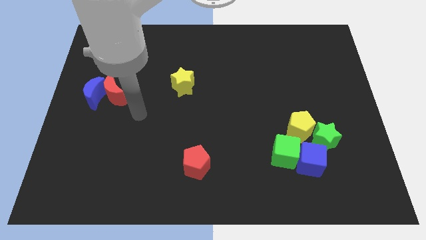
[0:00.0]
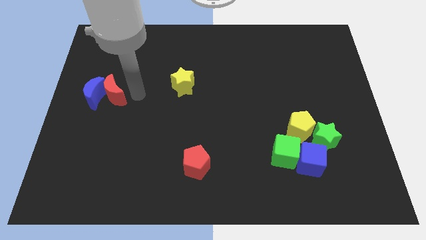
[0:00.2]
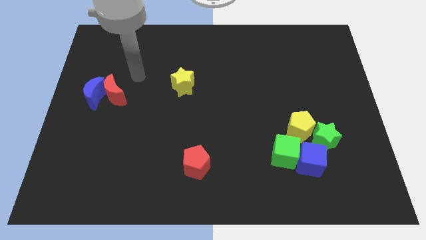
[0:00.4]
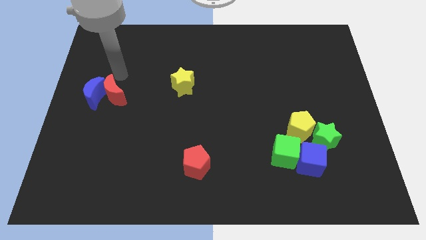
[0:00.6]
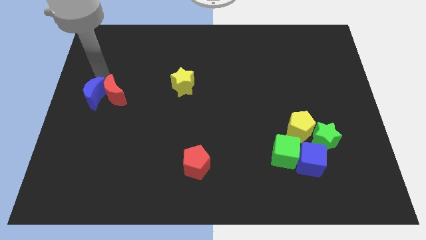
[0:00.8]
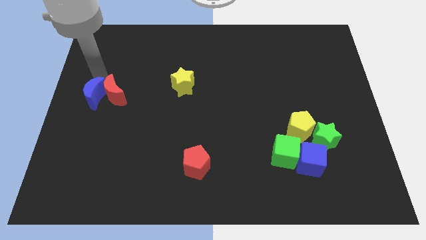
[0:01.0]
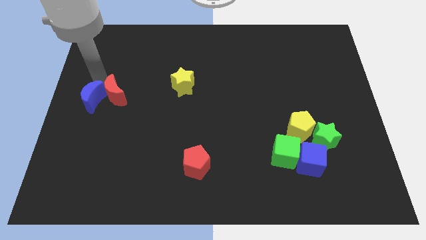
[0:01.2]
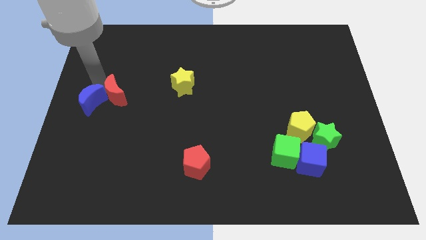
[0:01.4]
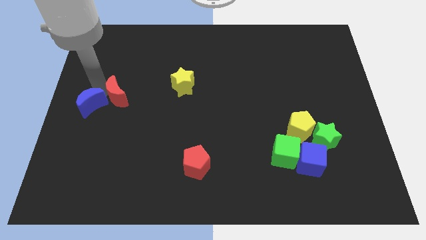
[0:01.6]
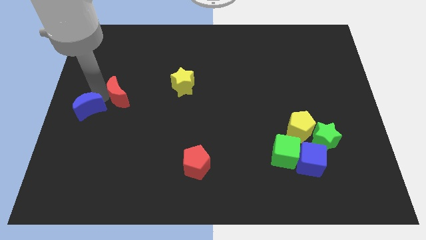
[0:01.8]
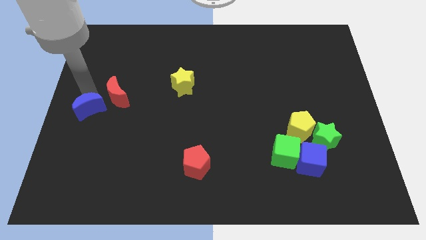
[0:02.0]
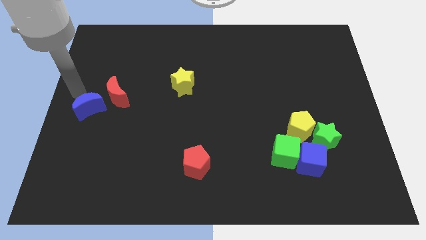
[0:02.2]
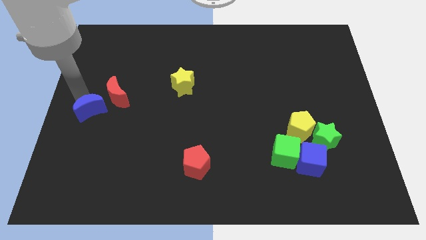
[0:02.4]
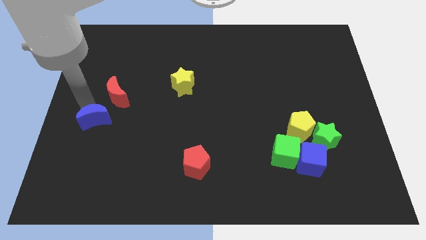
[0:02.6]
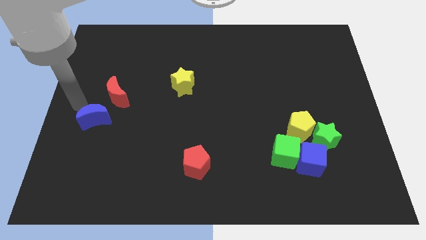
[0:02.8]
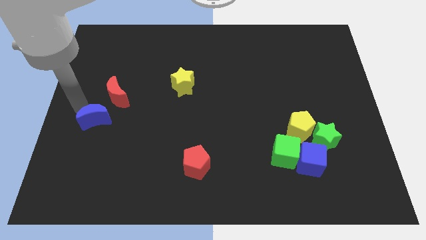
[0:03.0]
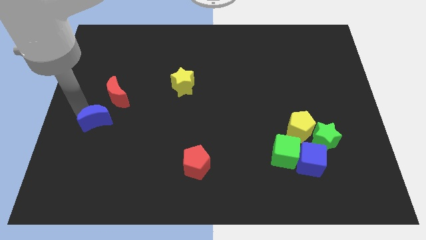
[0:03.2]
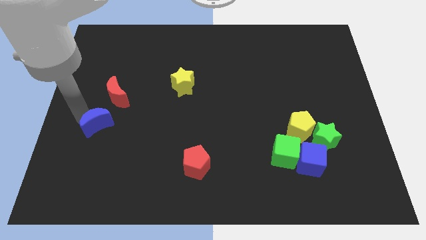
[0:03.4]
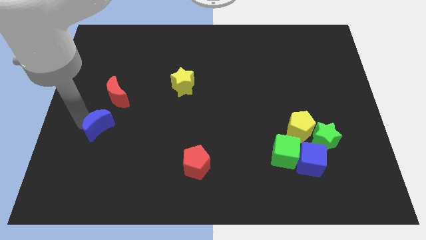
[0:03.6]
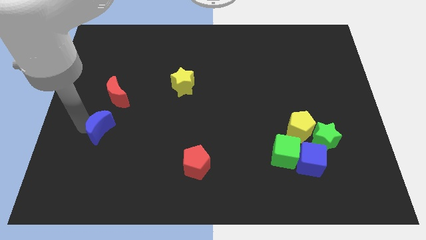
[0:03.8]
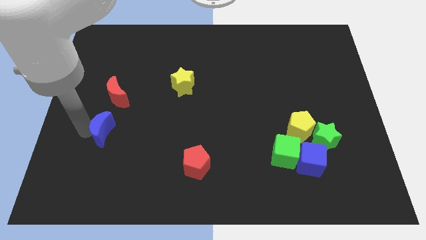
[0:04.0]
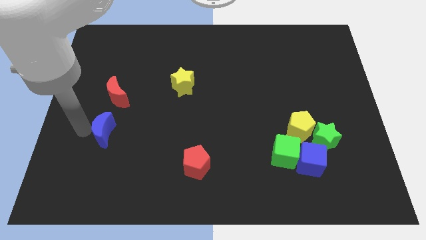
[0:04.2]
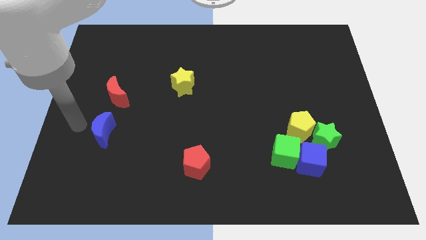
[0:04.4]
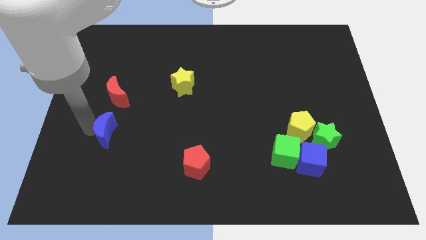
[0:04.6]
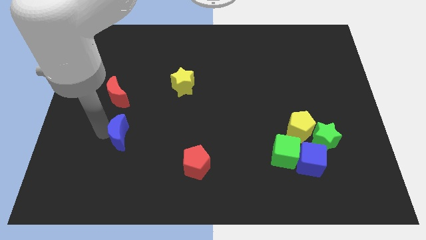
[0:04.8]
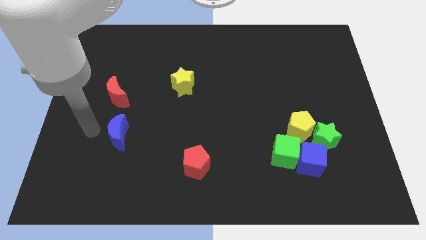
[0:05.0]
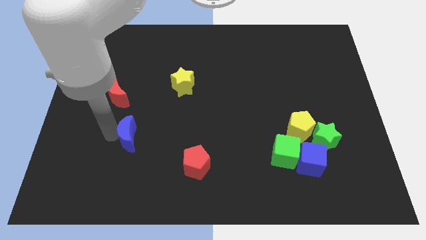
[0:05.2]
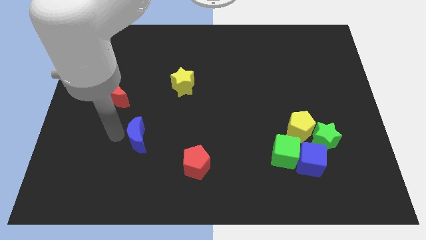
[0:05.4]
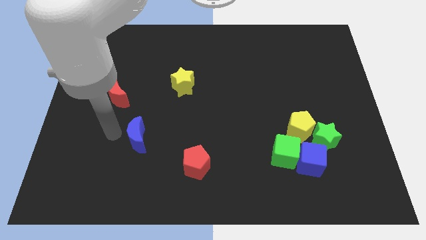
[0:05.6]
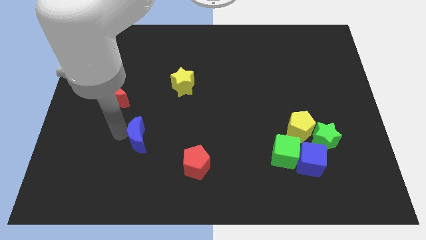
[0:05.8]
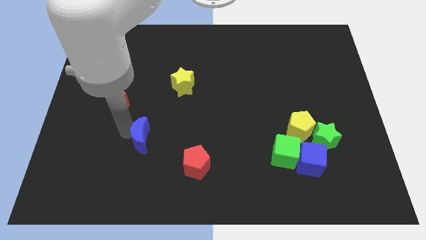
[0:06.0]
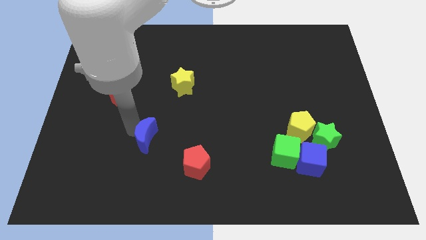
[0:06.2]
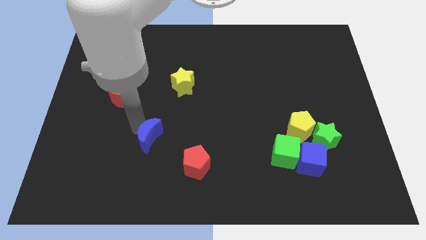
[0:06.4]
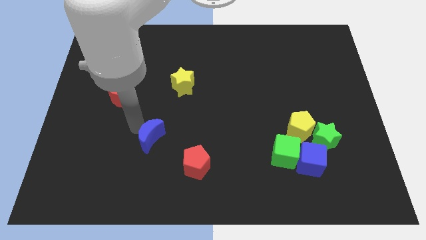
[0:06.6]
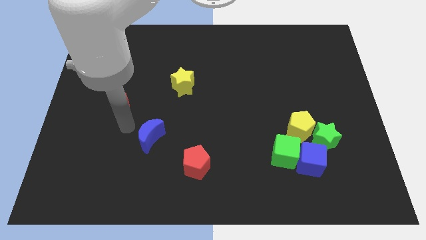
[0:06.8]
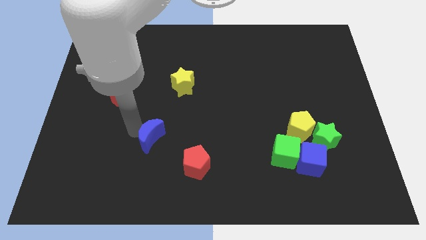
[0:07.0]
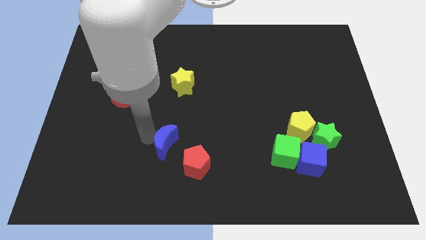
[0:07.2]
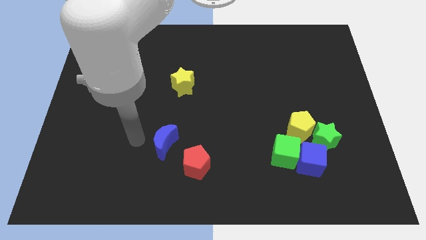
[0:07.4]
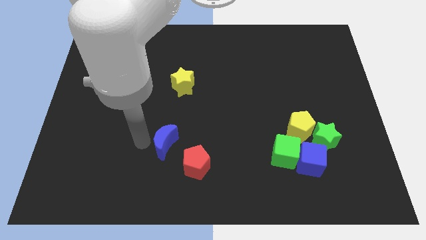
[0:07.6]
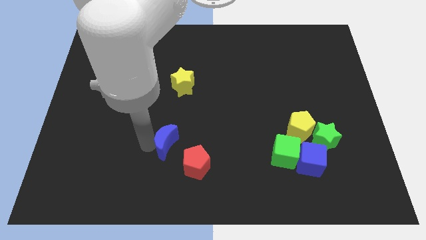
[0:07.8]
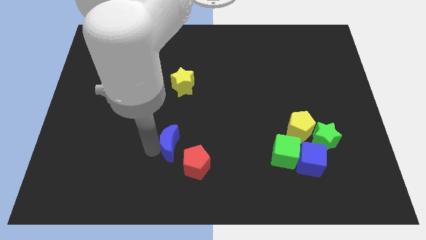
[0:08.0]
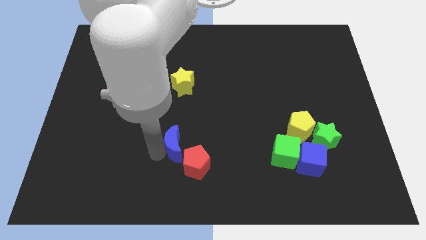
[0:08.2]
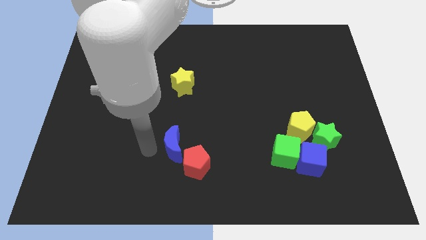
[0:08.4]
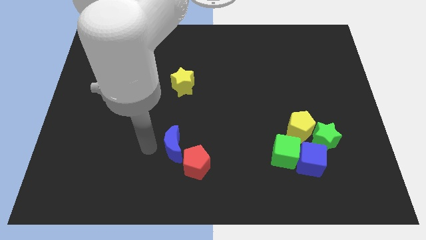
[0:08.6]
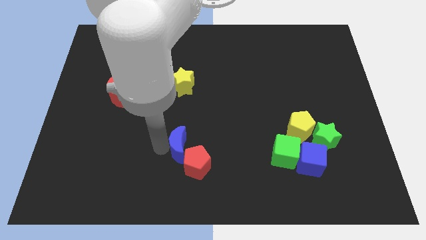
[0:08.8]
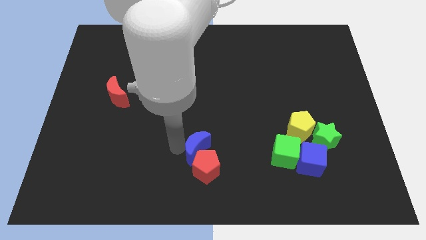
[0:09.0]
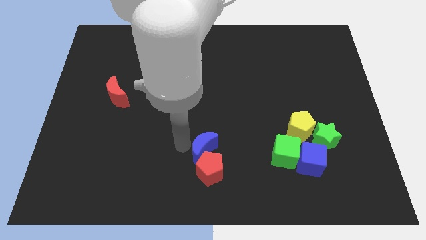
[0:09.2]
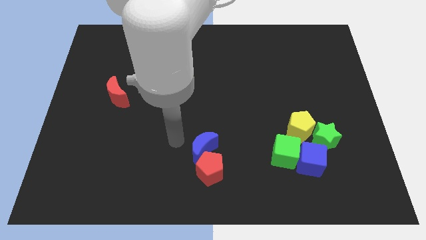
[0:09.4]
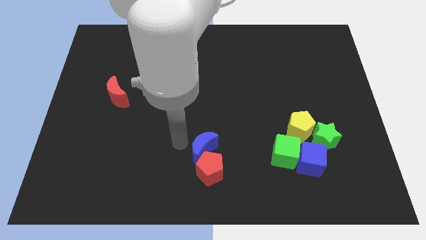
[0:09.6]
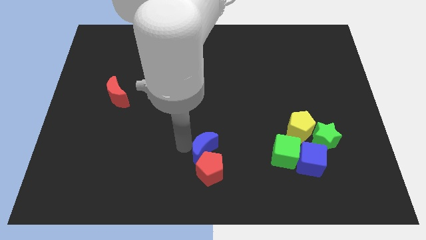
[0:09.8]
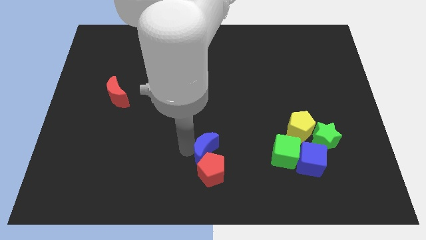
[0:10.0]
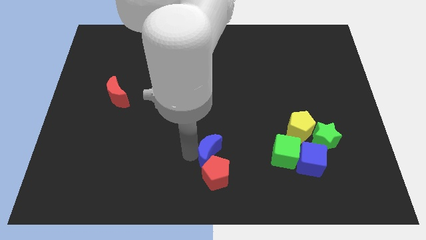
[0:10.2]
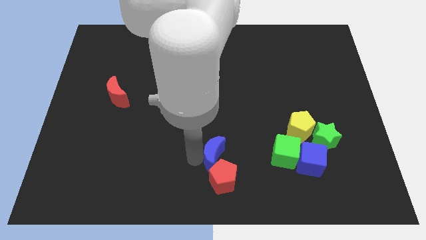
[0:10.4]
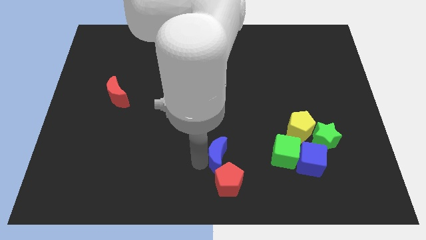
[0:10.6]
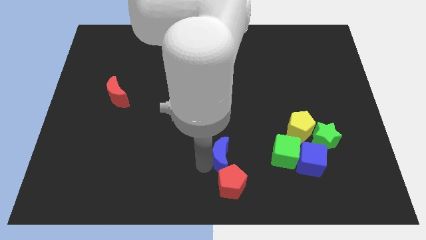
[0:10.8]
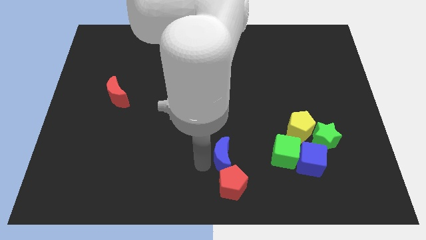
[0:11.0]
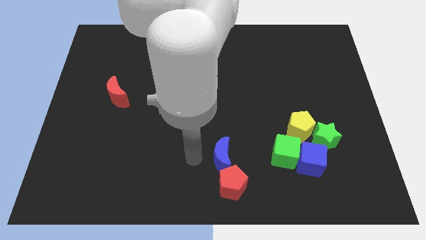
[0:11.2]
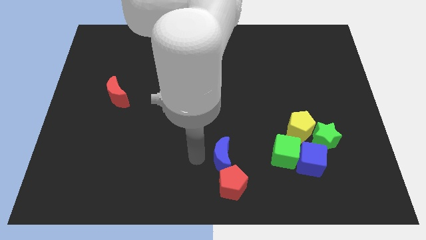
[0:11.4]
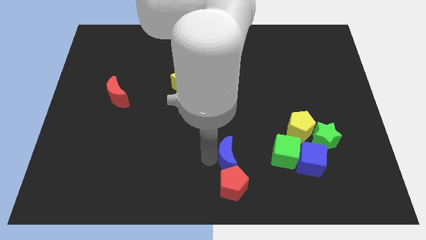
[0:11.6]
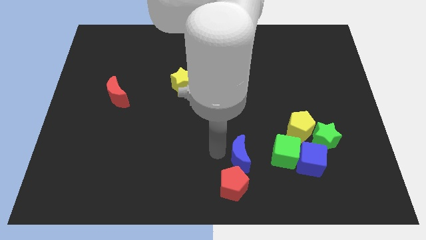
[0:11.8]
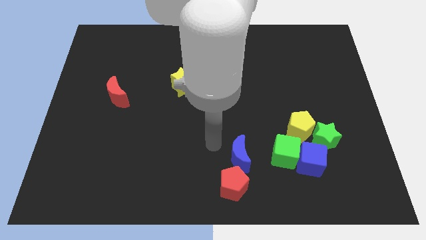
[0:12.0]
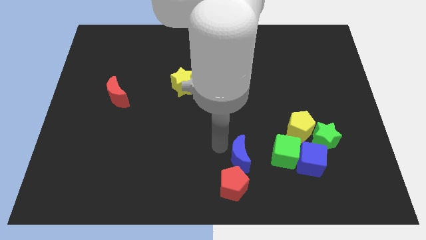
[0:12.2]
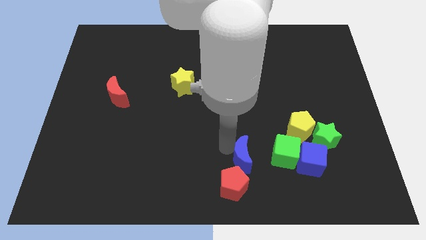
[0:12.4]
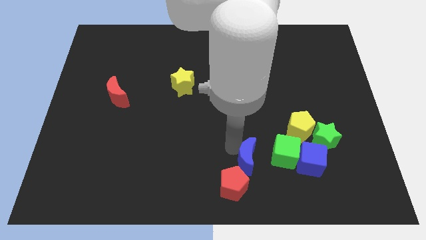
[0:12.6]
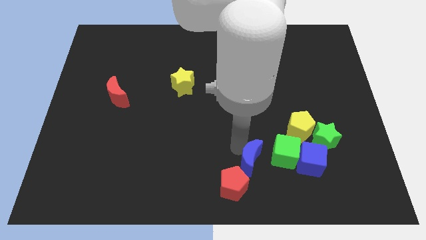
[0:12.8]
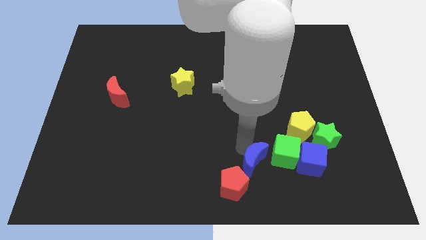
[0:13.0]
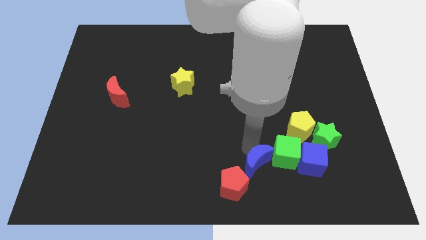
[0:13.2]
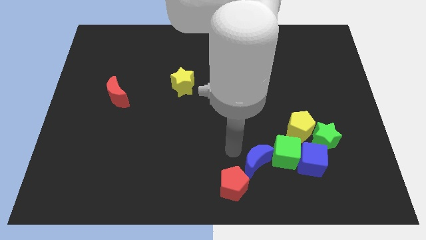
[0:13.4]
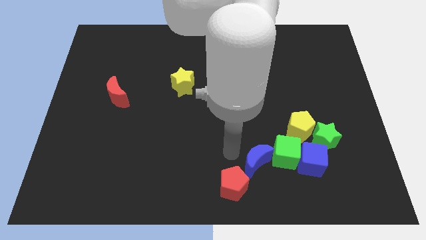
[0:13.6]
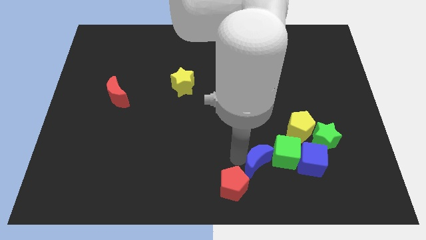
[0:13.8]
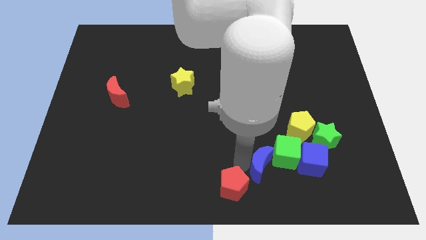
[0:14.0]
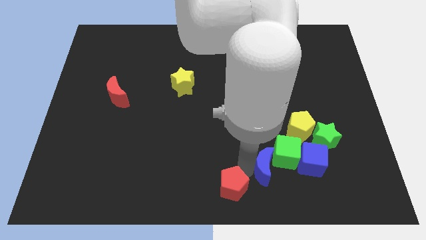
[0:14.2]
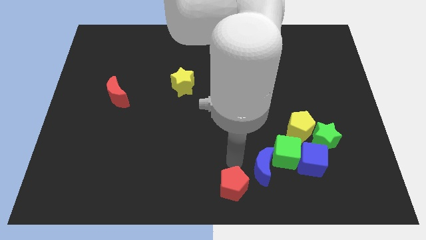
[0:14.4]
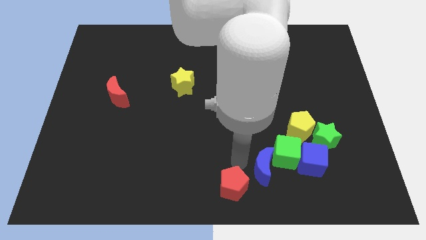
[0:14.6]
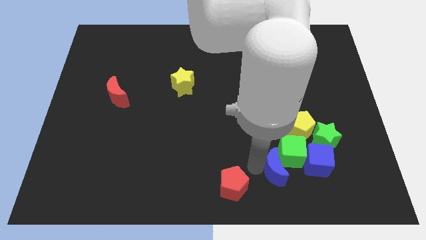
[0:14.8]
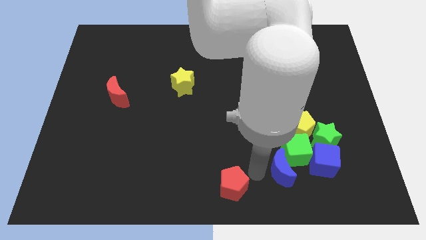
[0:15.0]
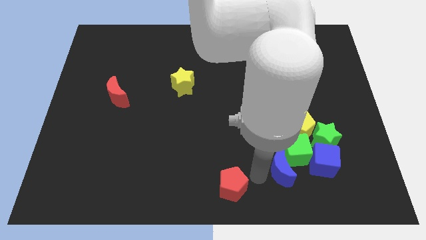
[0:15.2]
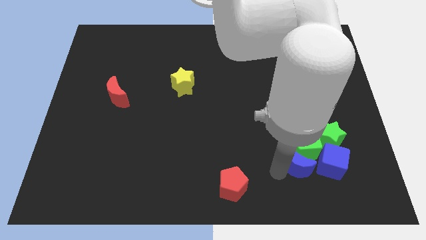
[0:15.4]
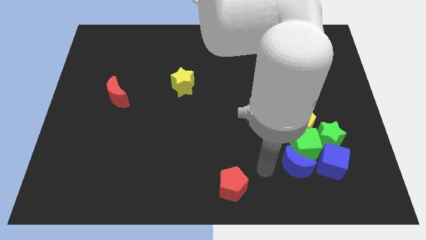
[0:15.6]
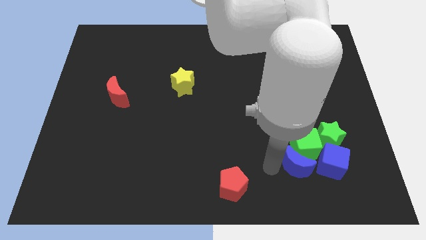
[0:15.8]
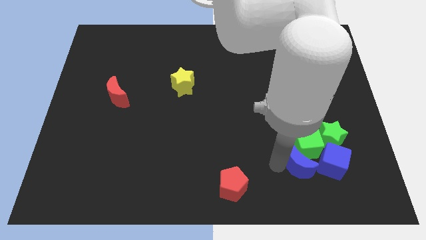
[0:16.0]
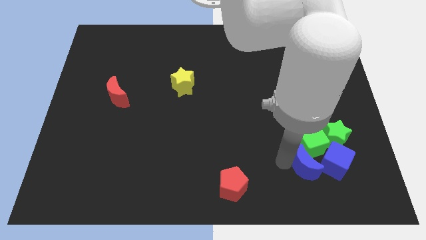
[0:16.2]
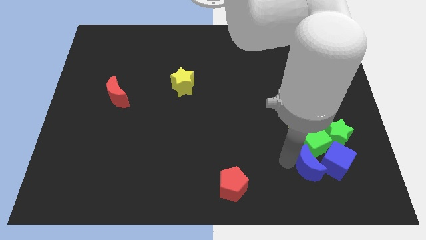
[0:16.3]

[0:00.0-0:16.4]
move the blue moon to the blue cube
